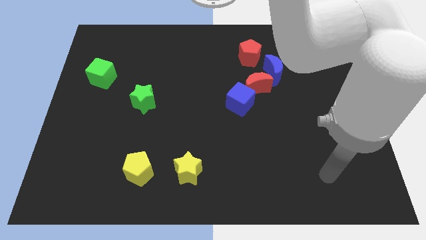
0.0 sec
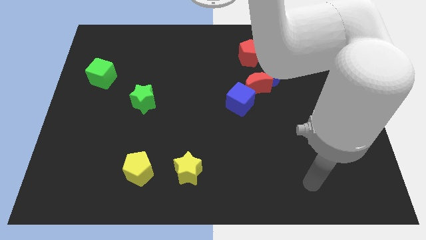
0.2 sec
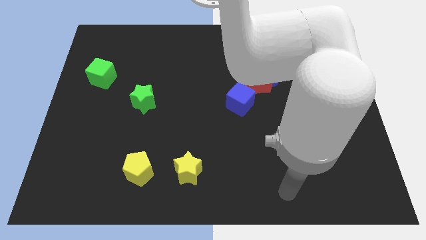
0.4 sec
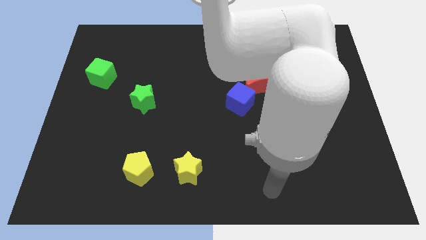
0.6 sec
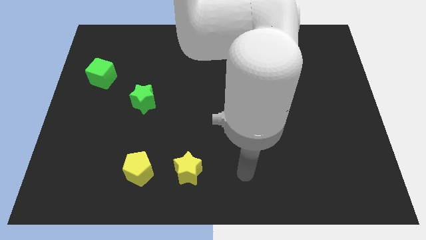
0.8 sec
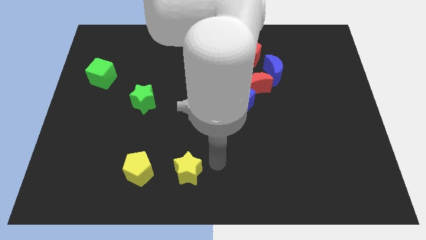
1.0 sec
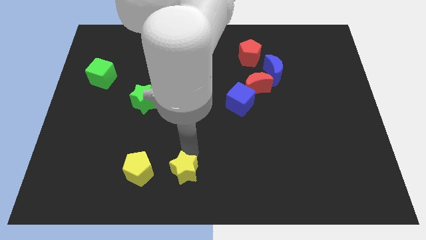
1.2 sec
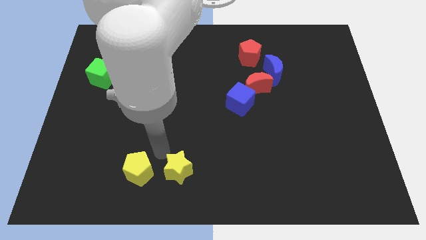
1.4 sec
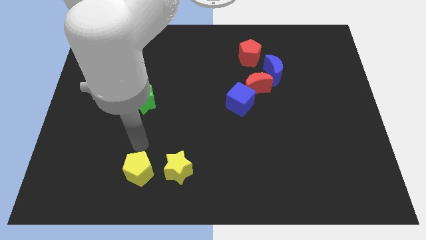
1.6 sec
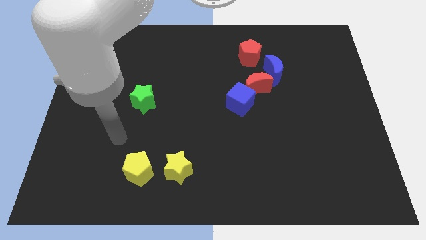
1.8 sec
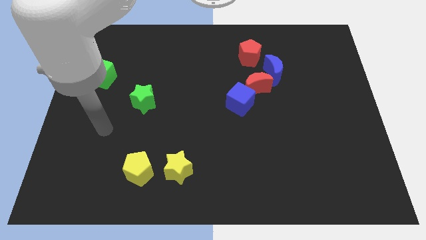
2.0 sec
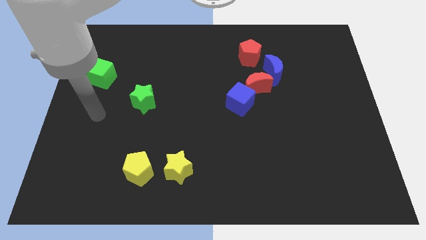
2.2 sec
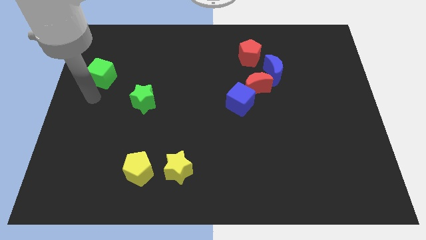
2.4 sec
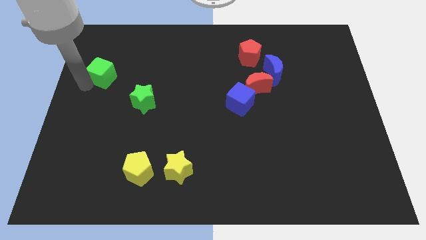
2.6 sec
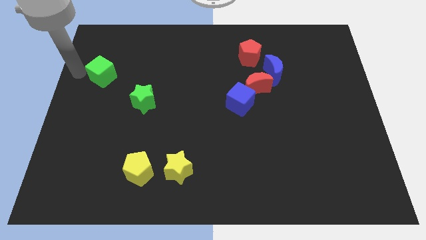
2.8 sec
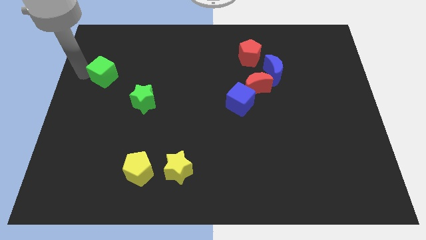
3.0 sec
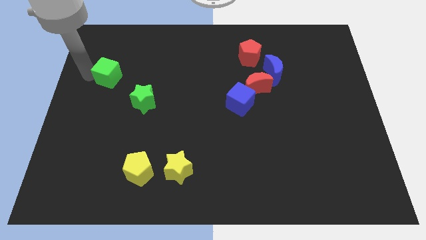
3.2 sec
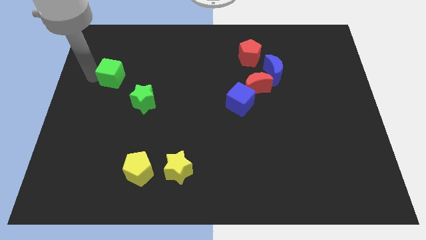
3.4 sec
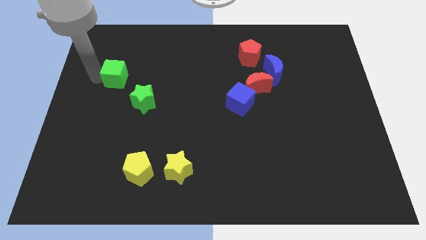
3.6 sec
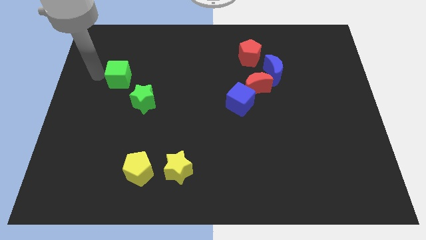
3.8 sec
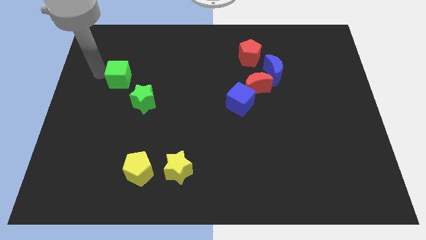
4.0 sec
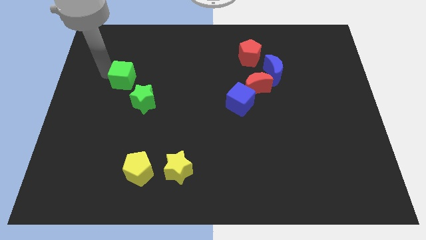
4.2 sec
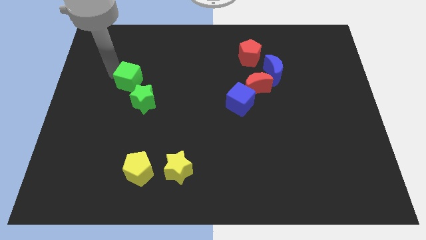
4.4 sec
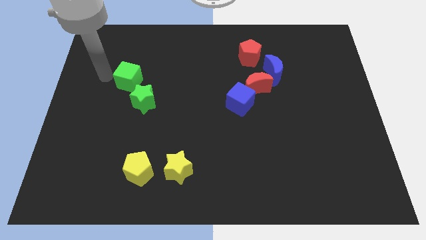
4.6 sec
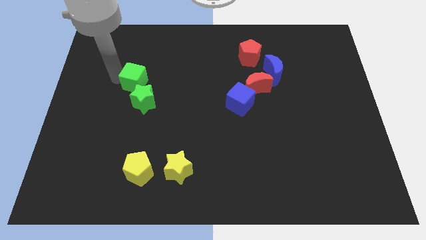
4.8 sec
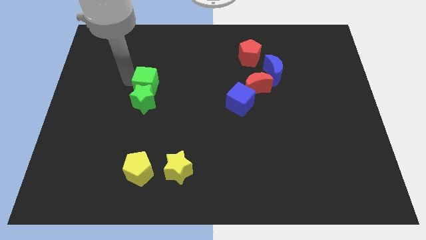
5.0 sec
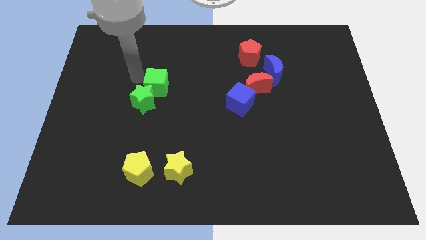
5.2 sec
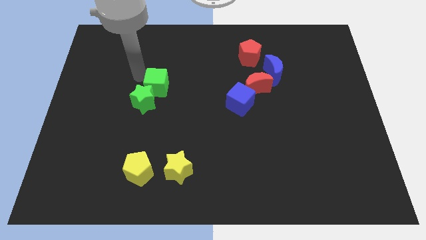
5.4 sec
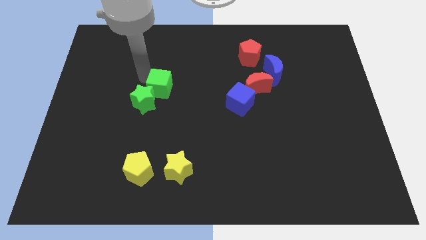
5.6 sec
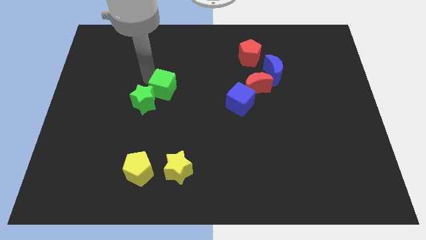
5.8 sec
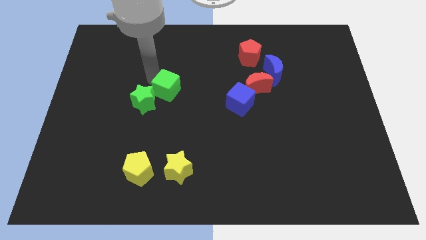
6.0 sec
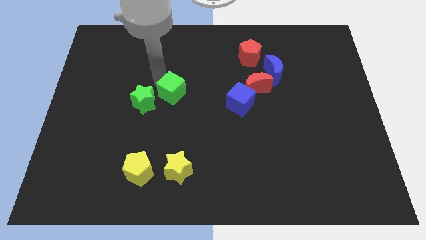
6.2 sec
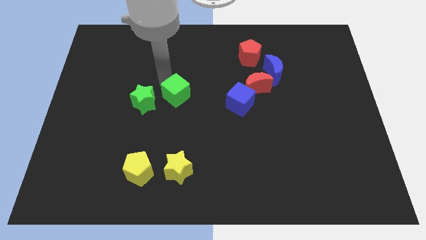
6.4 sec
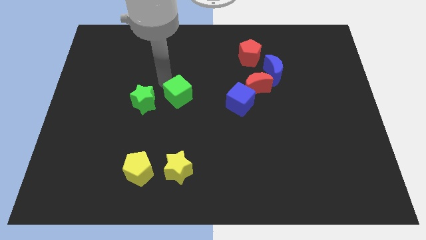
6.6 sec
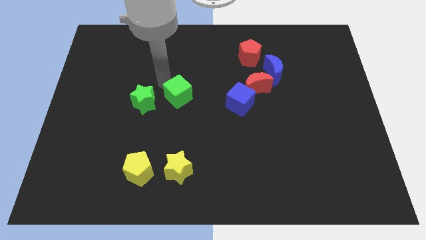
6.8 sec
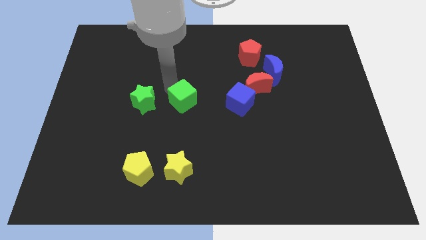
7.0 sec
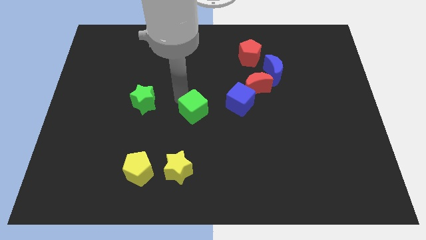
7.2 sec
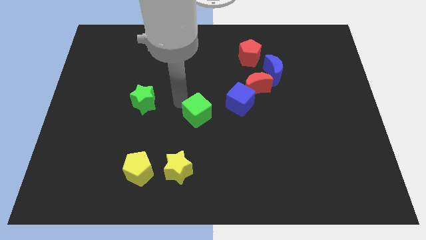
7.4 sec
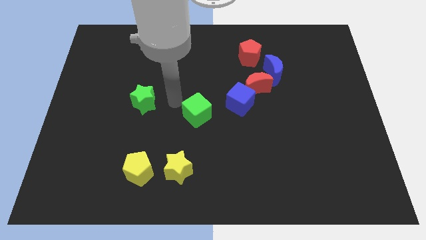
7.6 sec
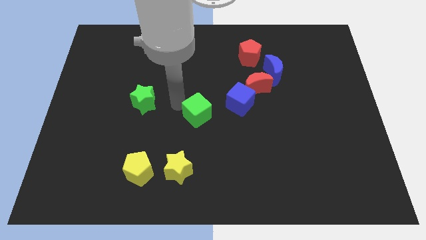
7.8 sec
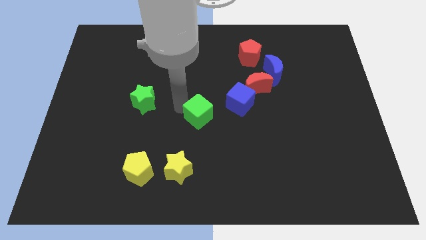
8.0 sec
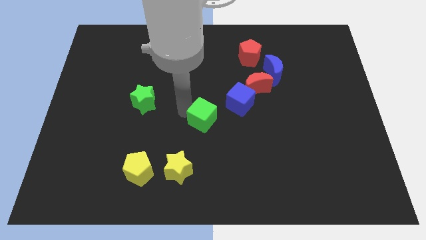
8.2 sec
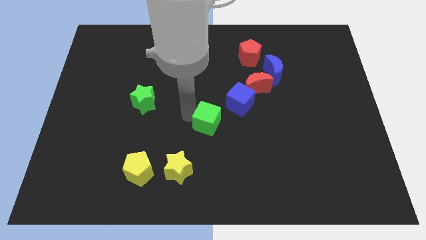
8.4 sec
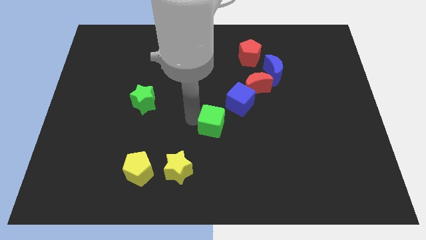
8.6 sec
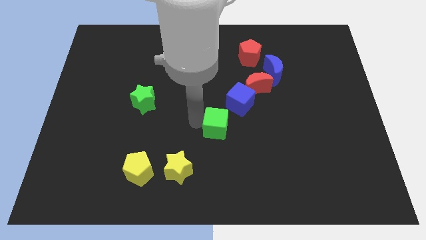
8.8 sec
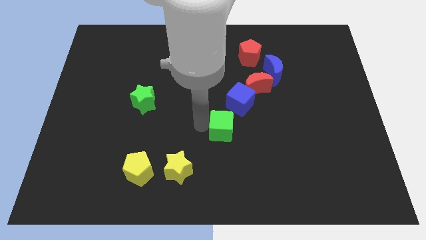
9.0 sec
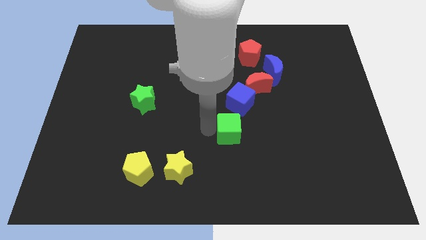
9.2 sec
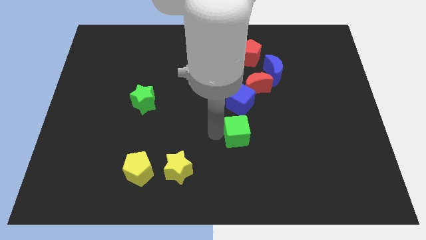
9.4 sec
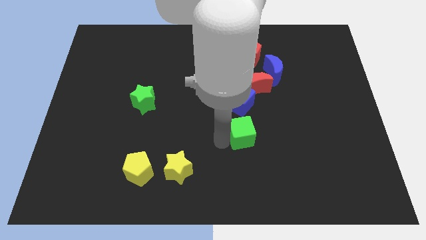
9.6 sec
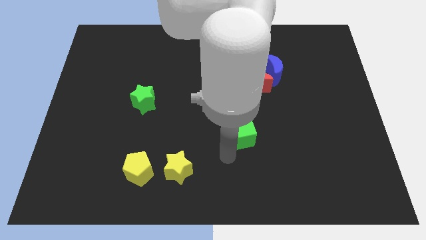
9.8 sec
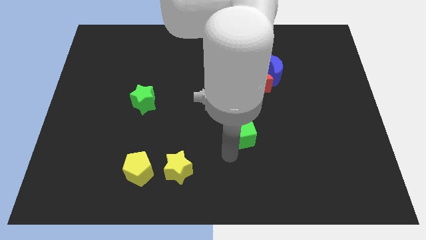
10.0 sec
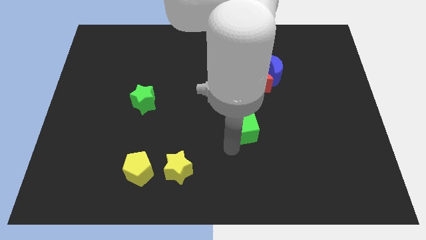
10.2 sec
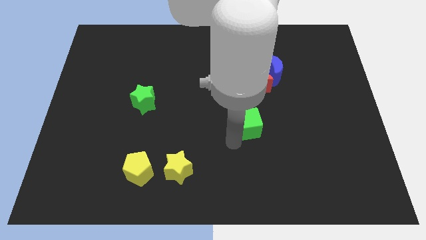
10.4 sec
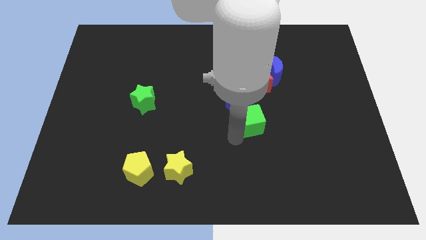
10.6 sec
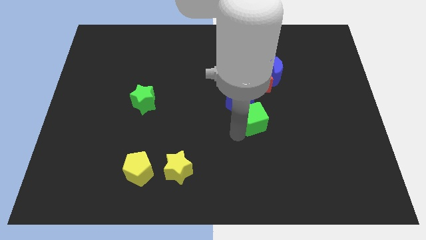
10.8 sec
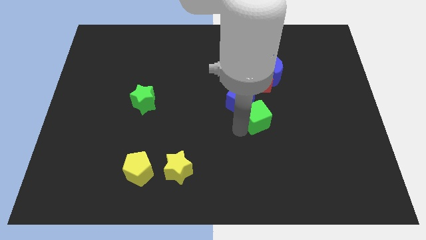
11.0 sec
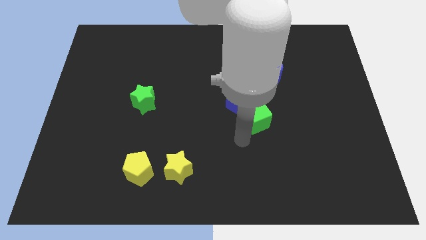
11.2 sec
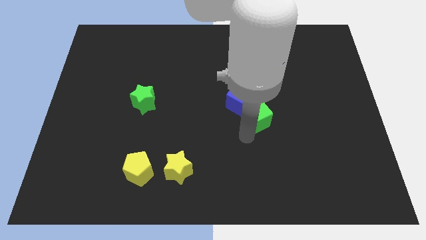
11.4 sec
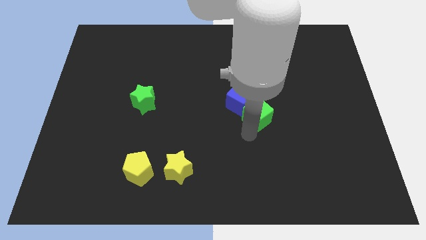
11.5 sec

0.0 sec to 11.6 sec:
slide the green cube to the right of the blue cube

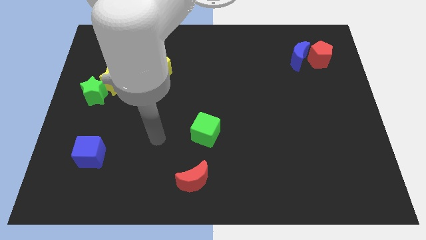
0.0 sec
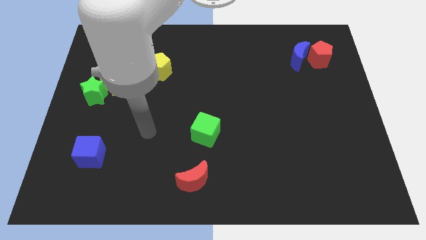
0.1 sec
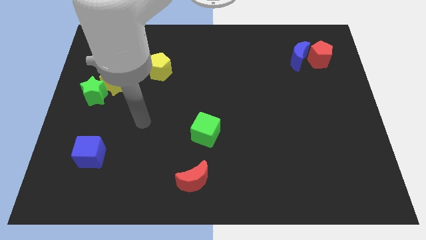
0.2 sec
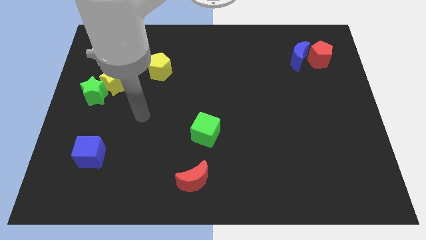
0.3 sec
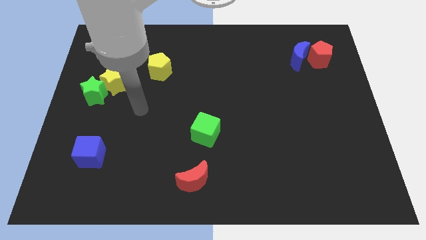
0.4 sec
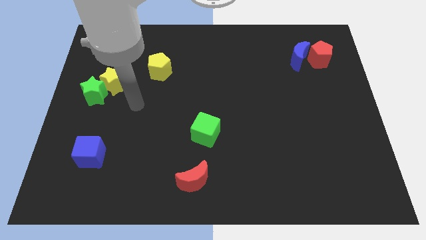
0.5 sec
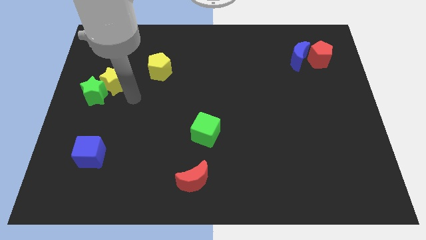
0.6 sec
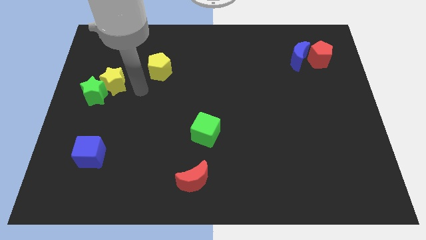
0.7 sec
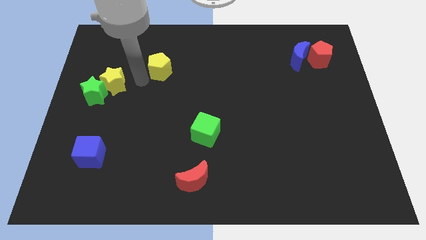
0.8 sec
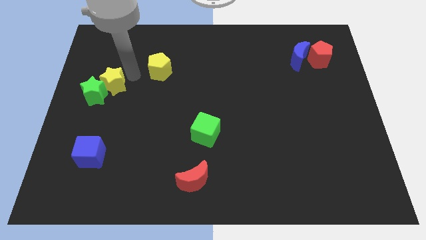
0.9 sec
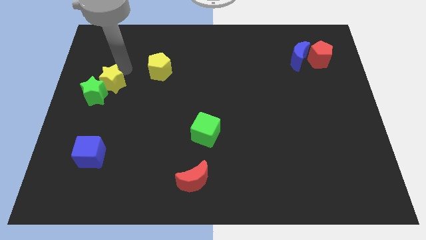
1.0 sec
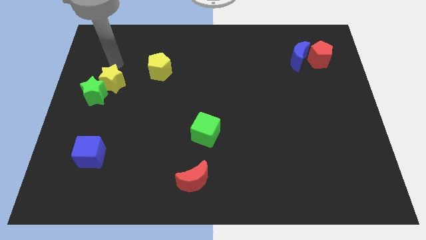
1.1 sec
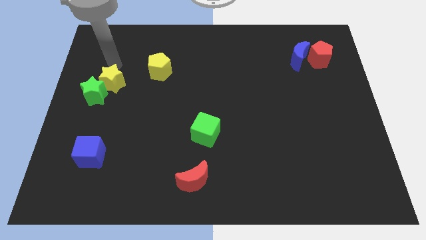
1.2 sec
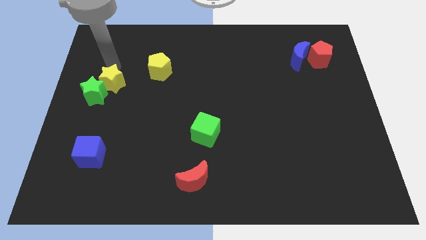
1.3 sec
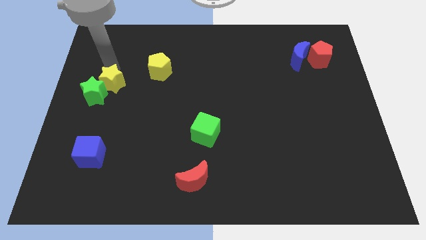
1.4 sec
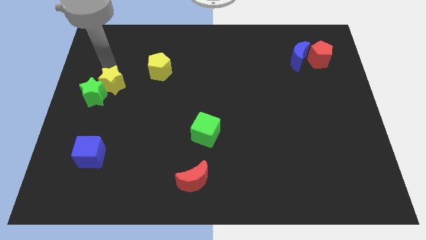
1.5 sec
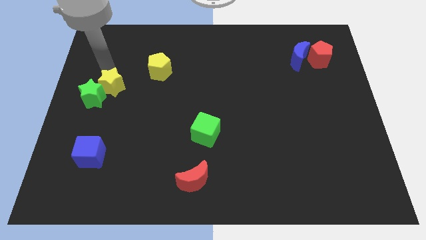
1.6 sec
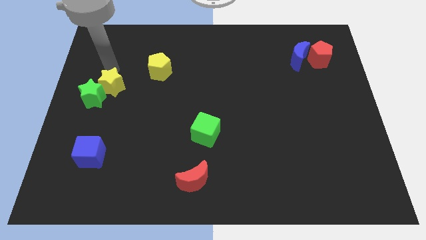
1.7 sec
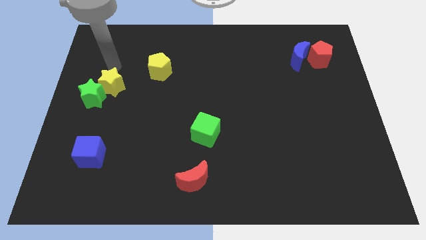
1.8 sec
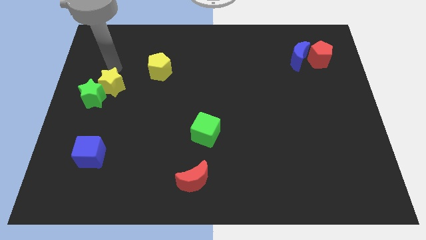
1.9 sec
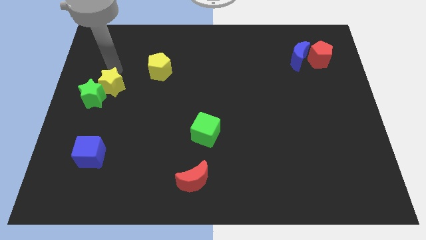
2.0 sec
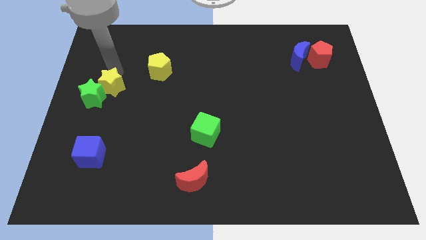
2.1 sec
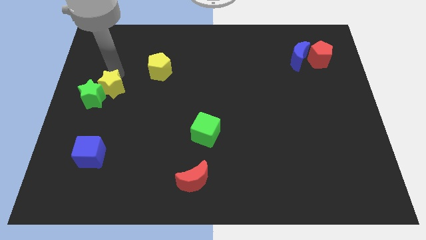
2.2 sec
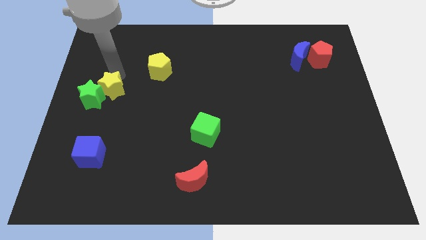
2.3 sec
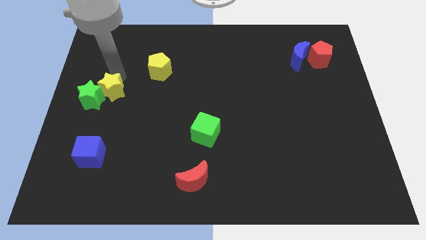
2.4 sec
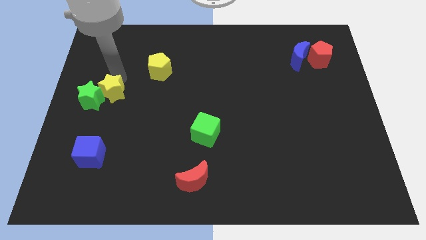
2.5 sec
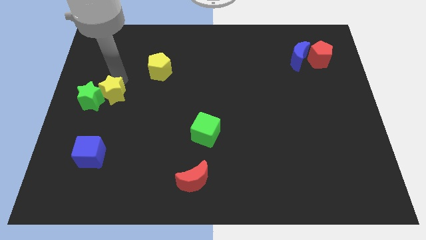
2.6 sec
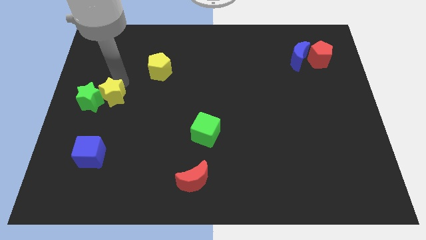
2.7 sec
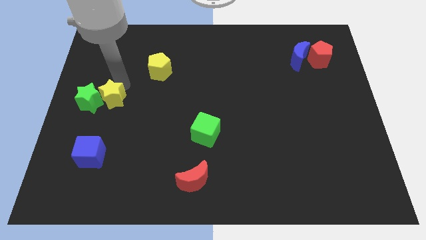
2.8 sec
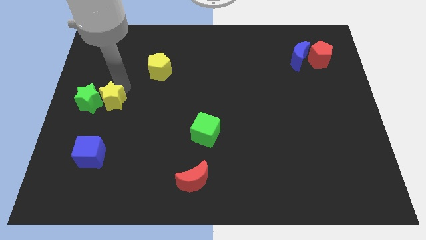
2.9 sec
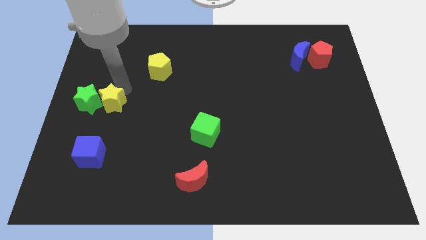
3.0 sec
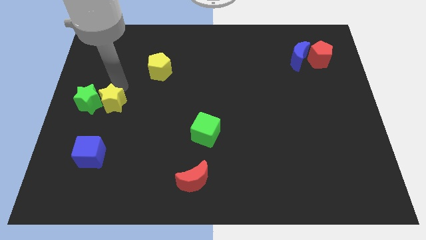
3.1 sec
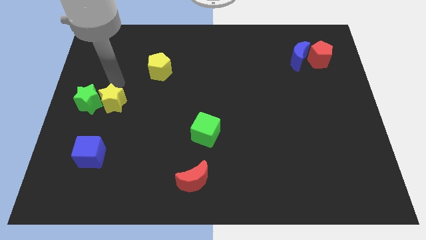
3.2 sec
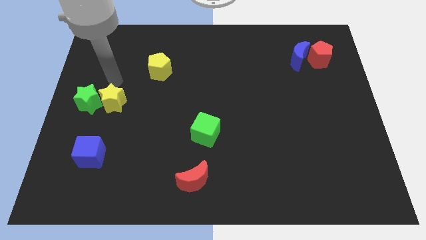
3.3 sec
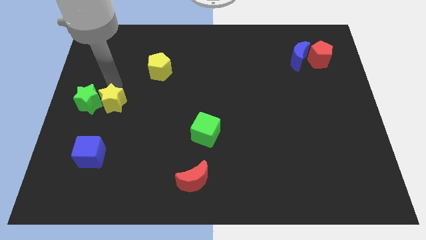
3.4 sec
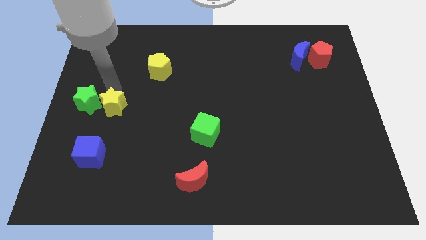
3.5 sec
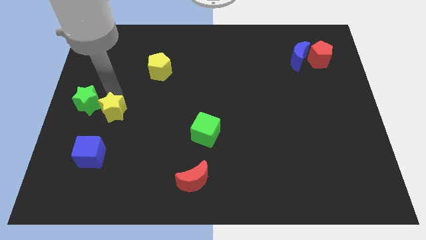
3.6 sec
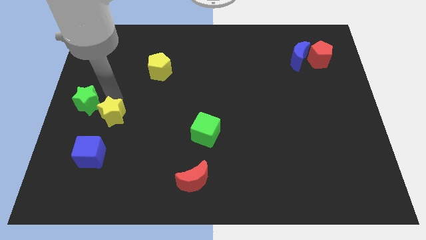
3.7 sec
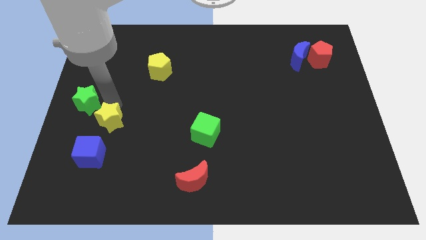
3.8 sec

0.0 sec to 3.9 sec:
slide the yellow star to the top right side of the blue cube
